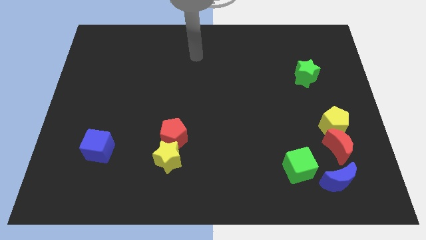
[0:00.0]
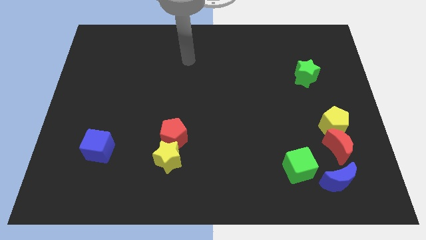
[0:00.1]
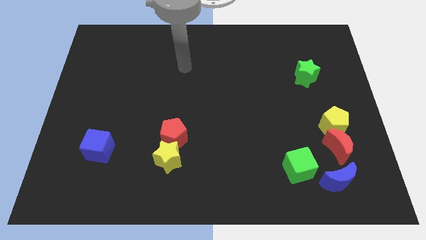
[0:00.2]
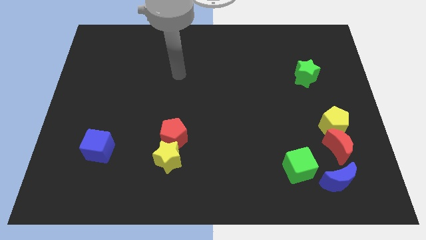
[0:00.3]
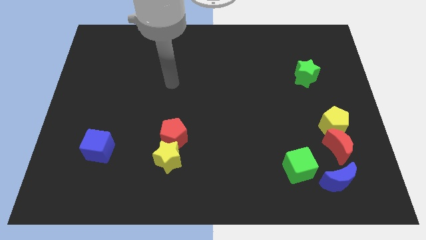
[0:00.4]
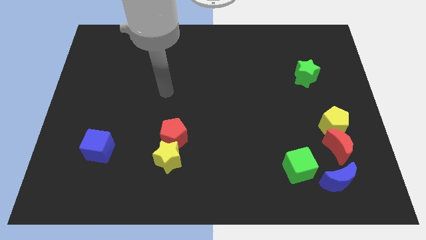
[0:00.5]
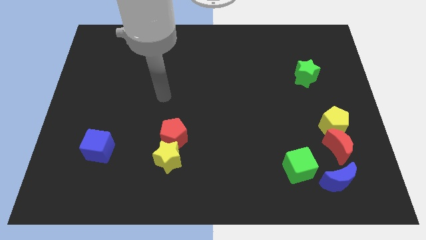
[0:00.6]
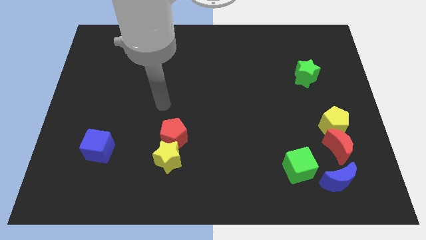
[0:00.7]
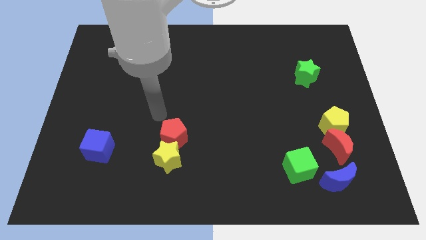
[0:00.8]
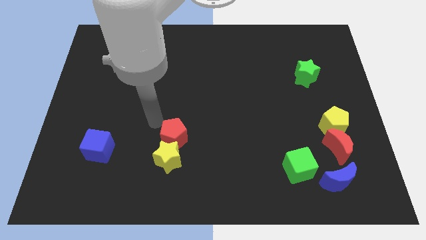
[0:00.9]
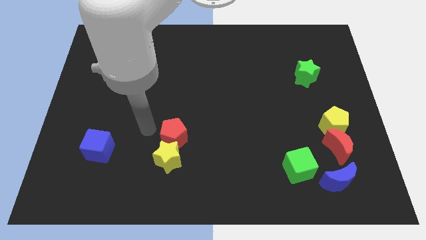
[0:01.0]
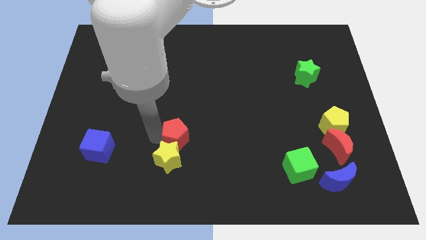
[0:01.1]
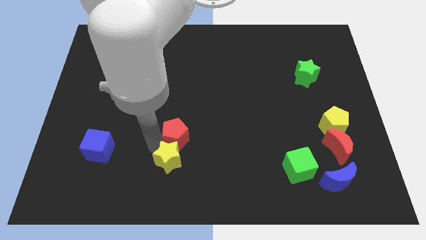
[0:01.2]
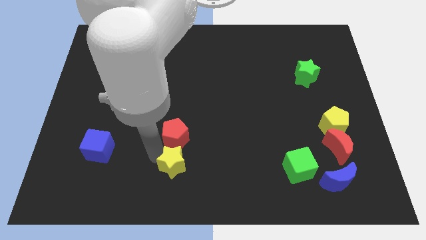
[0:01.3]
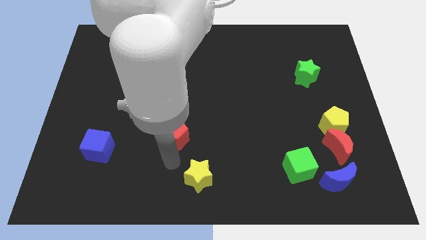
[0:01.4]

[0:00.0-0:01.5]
move the red pentagon away from the yellow star

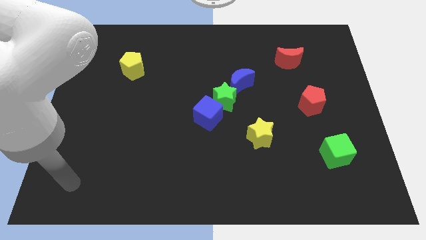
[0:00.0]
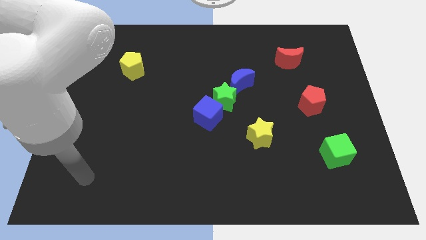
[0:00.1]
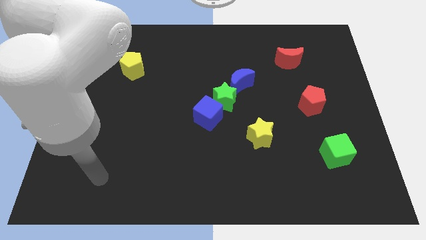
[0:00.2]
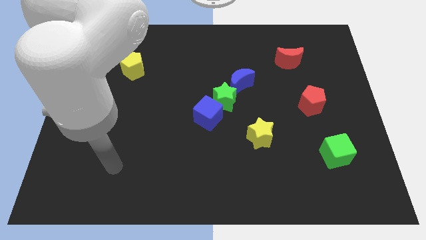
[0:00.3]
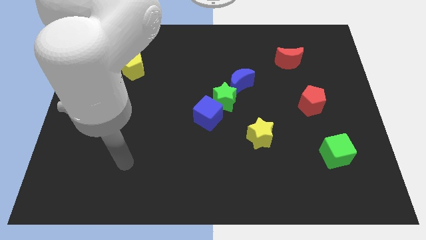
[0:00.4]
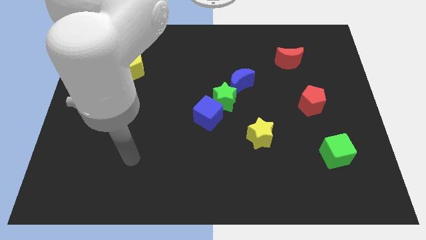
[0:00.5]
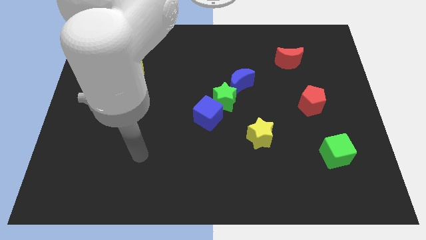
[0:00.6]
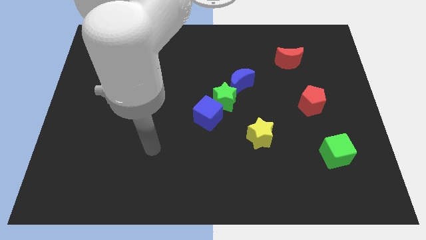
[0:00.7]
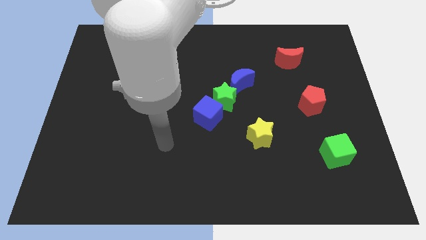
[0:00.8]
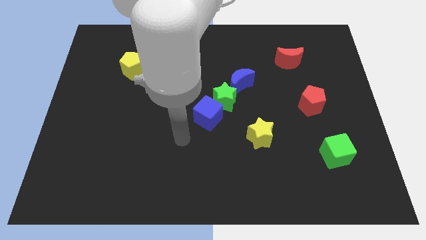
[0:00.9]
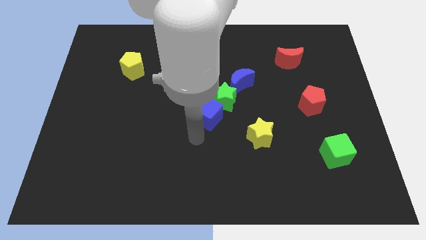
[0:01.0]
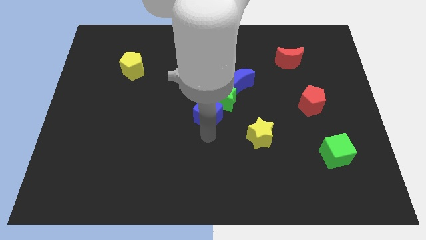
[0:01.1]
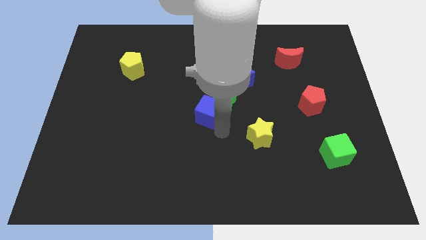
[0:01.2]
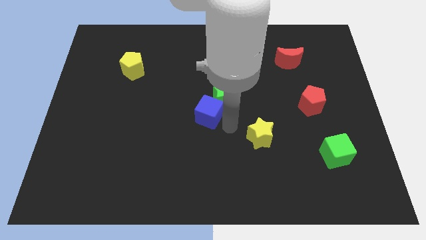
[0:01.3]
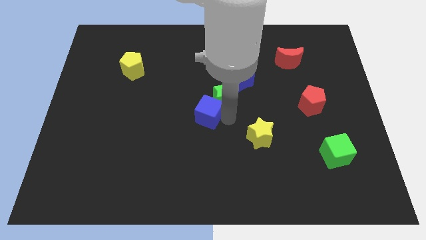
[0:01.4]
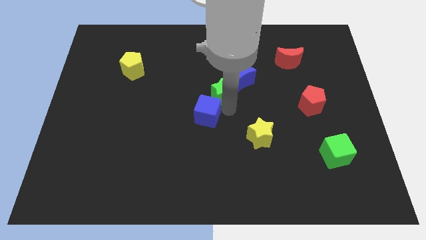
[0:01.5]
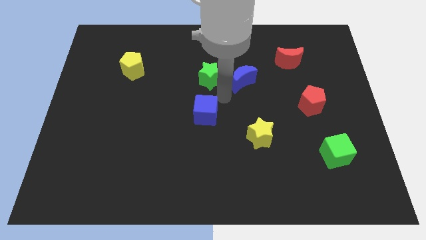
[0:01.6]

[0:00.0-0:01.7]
move the blue cube away from the green star

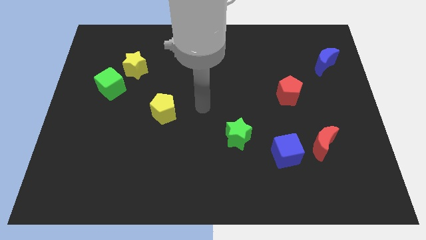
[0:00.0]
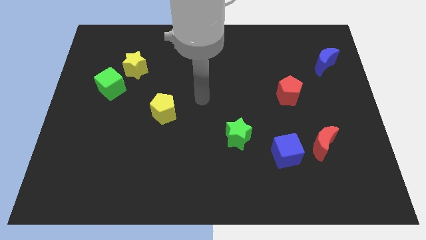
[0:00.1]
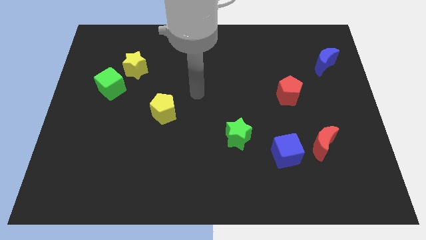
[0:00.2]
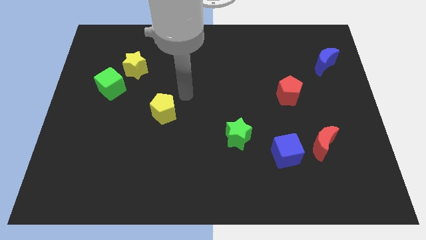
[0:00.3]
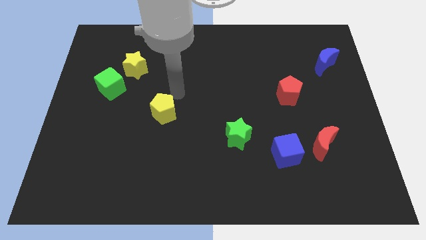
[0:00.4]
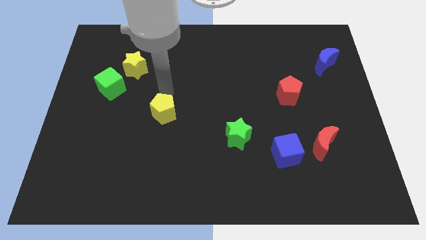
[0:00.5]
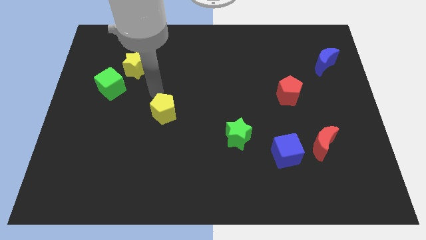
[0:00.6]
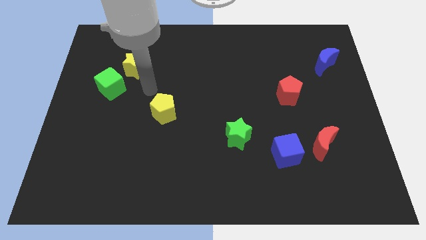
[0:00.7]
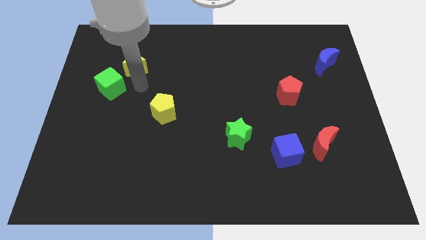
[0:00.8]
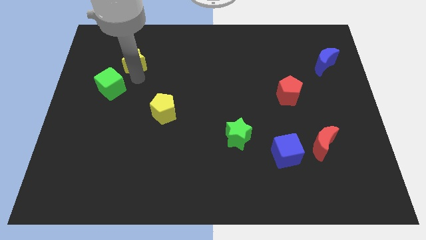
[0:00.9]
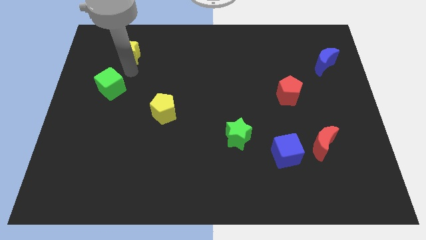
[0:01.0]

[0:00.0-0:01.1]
move the green cube away from the yellow star

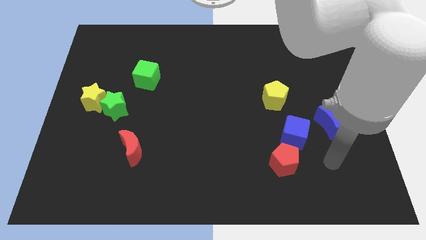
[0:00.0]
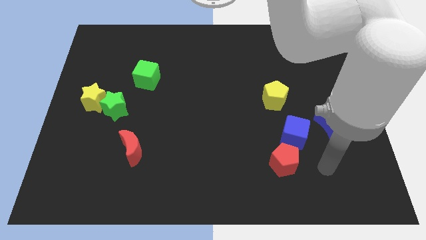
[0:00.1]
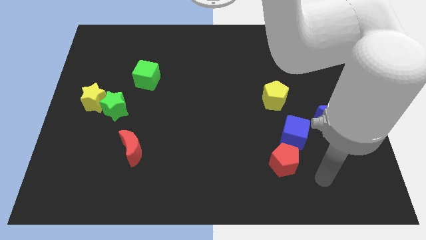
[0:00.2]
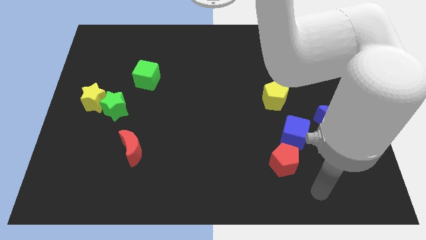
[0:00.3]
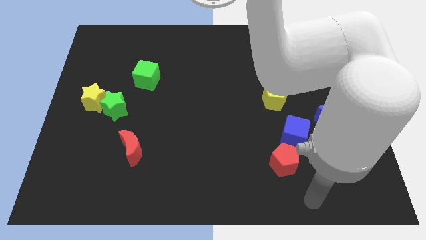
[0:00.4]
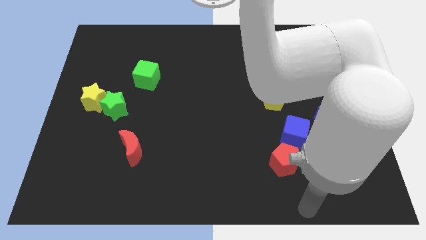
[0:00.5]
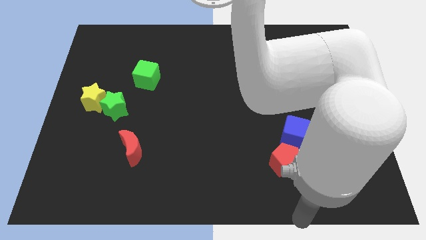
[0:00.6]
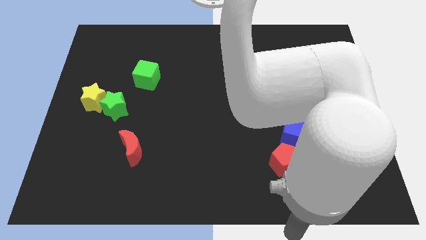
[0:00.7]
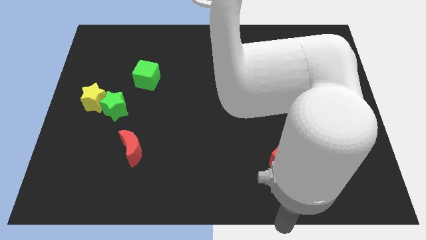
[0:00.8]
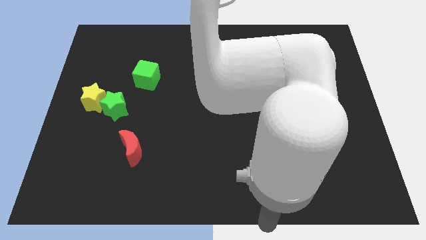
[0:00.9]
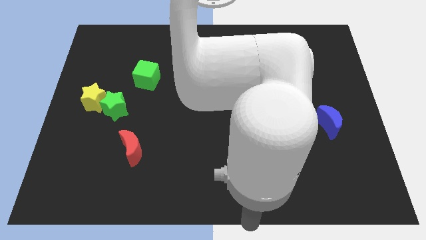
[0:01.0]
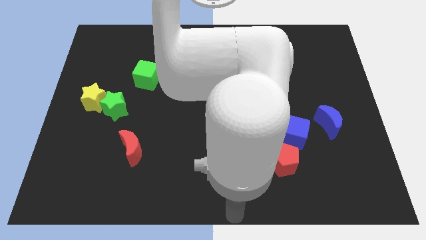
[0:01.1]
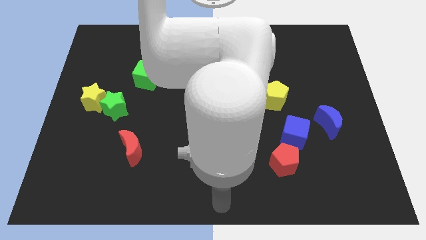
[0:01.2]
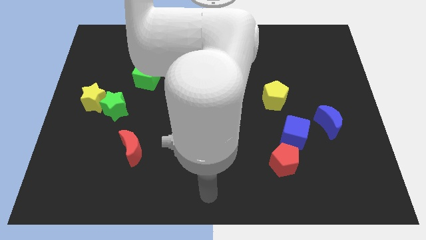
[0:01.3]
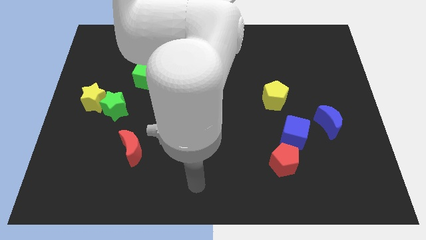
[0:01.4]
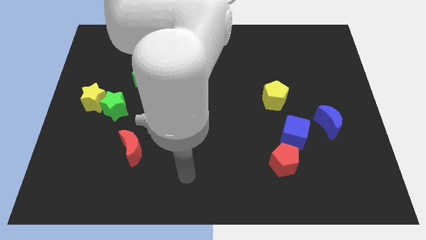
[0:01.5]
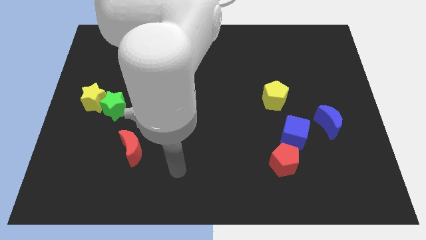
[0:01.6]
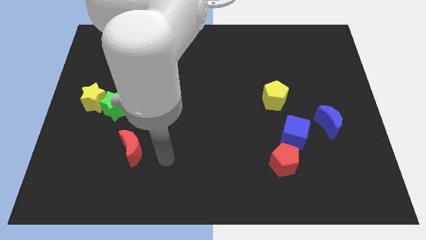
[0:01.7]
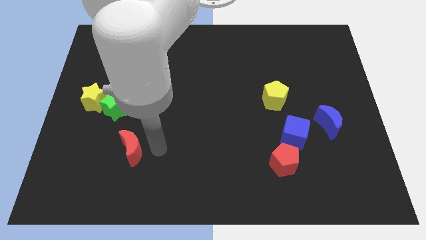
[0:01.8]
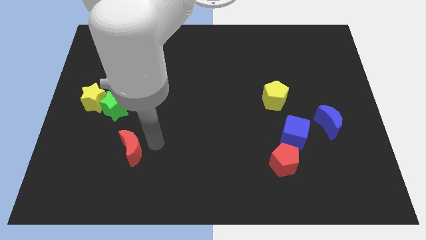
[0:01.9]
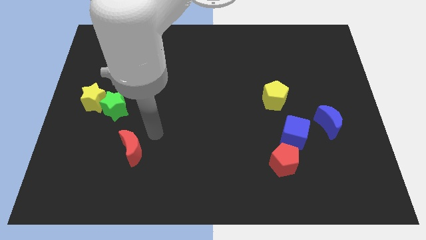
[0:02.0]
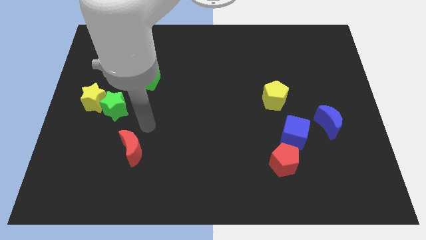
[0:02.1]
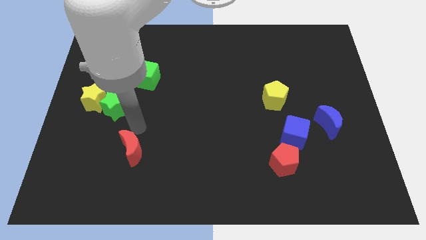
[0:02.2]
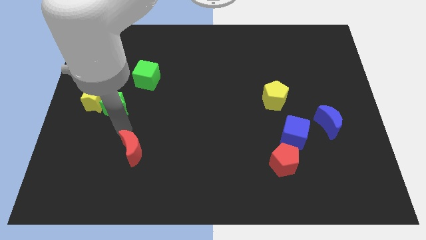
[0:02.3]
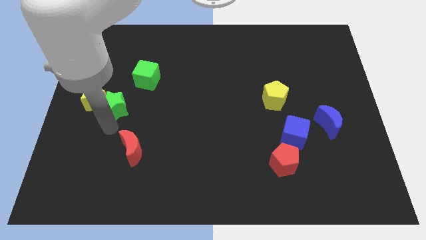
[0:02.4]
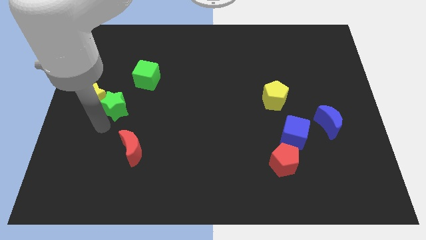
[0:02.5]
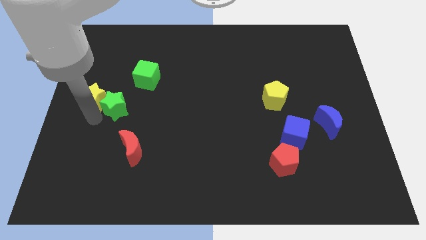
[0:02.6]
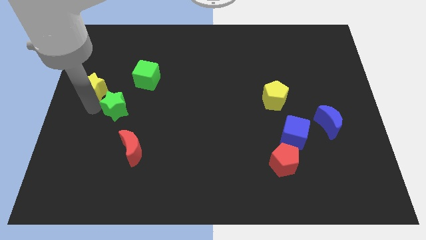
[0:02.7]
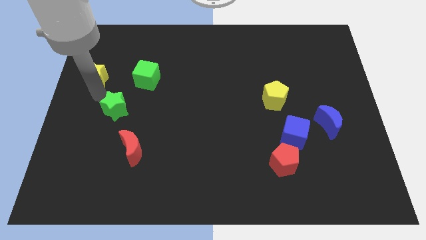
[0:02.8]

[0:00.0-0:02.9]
separate the green star from the yellow star

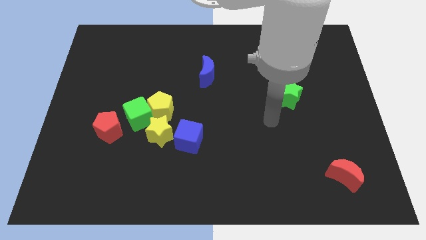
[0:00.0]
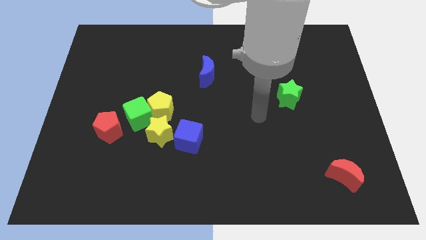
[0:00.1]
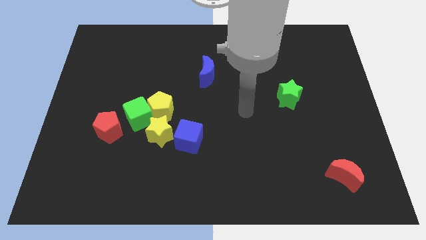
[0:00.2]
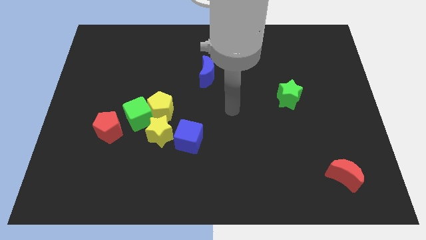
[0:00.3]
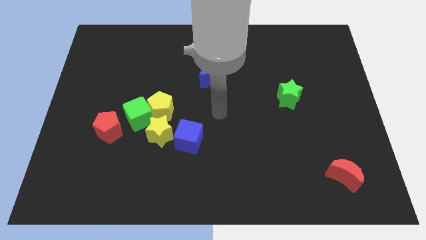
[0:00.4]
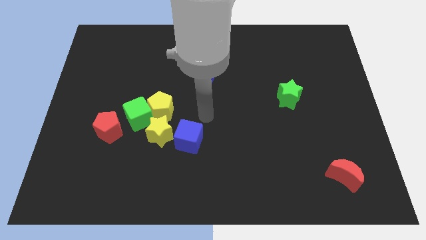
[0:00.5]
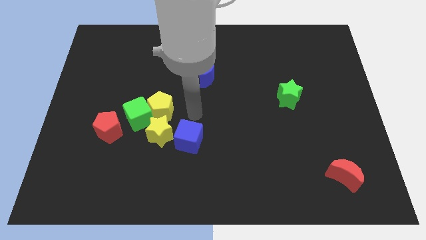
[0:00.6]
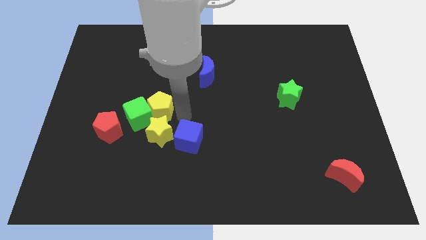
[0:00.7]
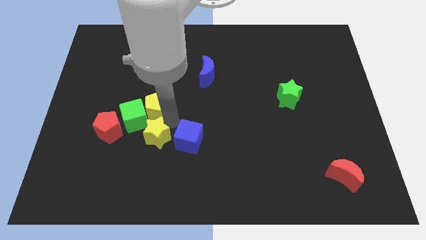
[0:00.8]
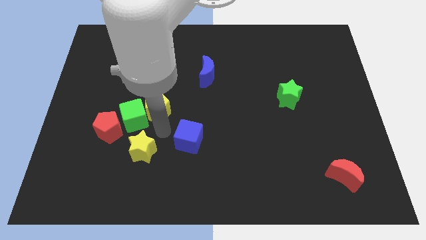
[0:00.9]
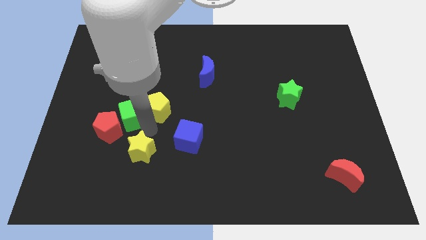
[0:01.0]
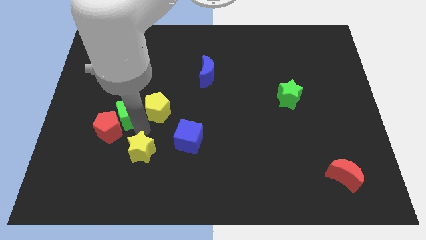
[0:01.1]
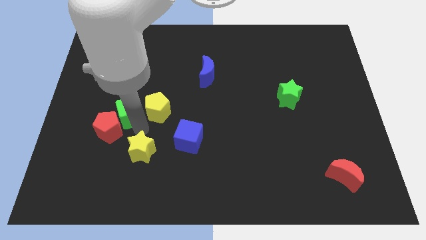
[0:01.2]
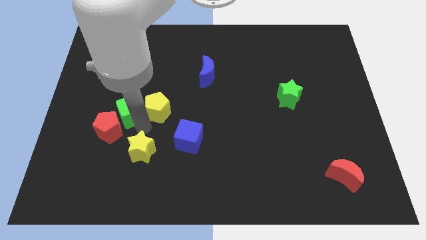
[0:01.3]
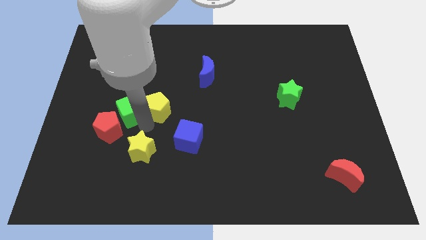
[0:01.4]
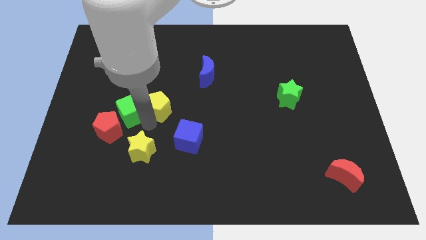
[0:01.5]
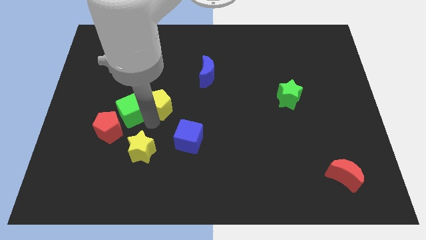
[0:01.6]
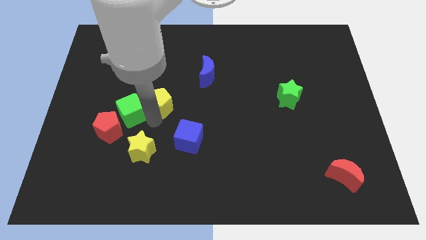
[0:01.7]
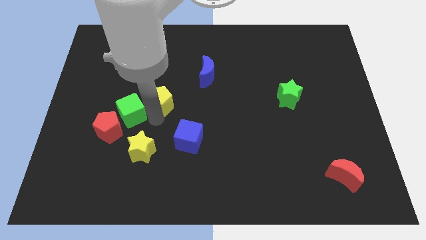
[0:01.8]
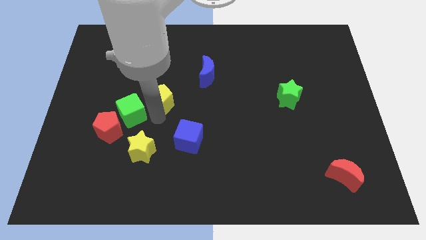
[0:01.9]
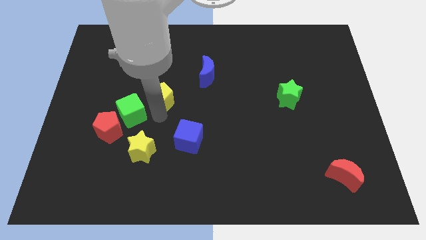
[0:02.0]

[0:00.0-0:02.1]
move the yellow pentagon away from the green cube and yellow star
